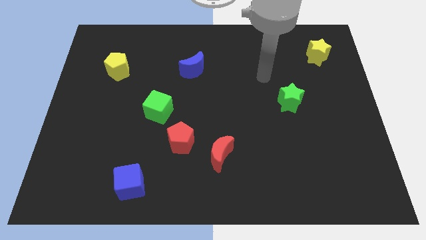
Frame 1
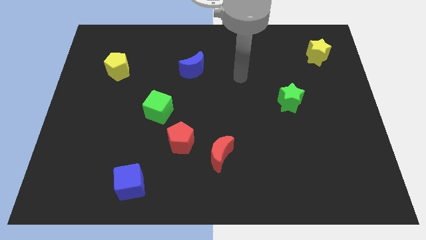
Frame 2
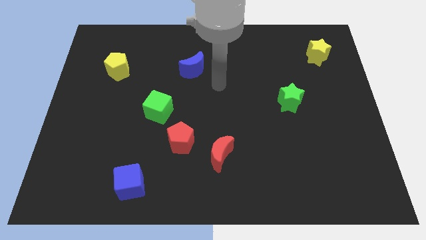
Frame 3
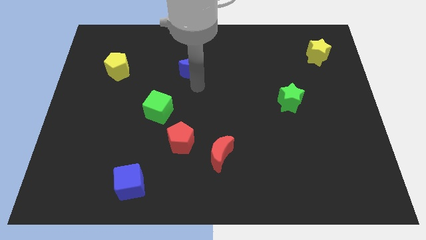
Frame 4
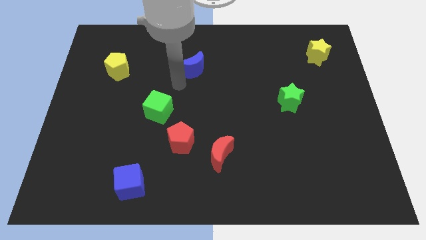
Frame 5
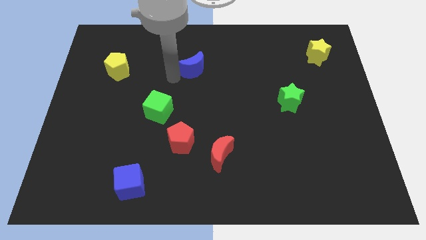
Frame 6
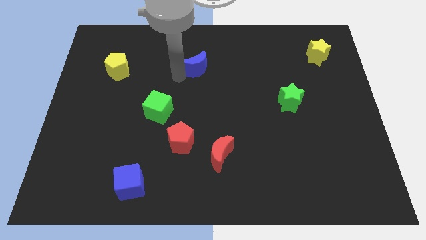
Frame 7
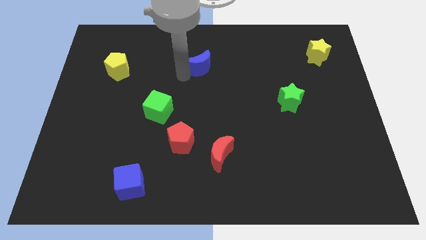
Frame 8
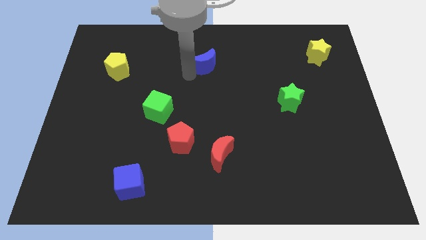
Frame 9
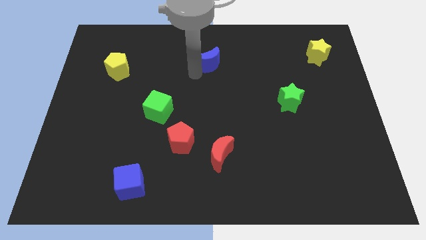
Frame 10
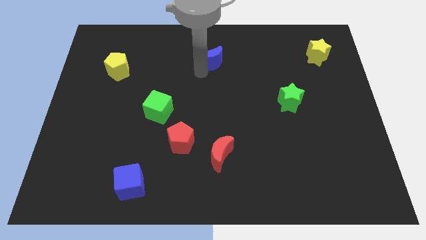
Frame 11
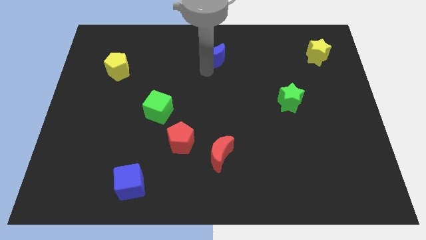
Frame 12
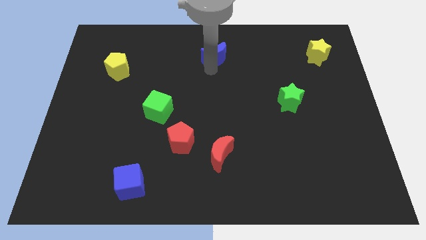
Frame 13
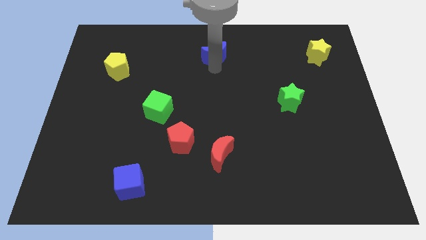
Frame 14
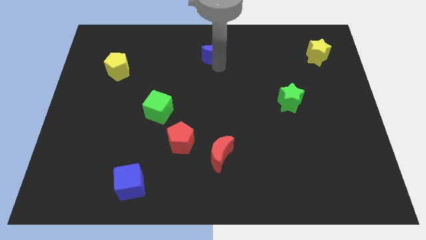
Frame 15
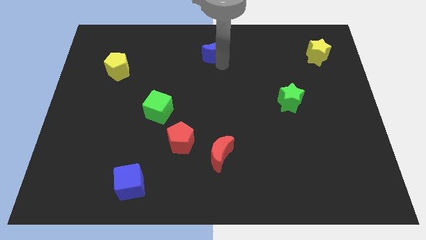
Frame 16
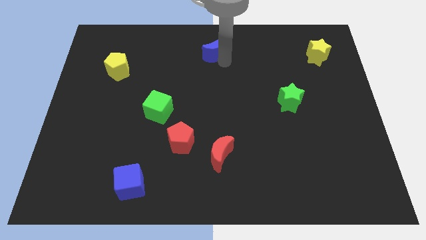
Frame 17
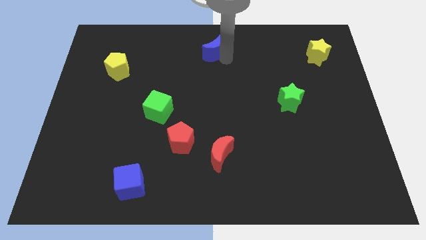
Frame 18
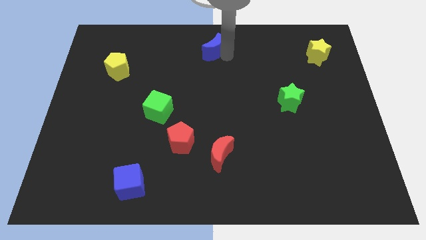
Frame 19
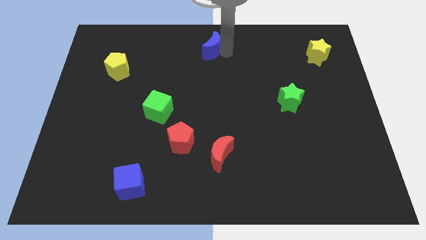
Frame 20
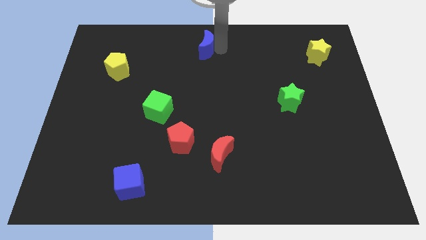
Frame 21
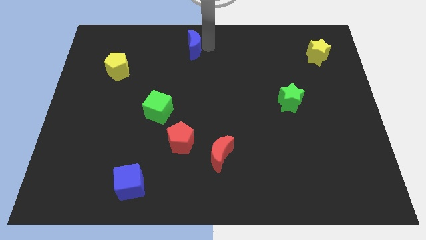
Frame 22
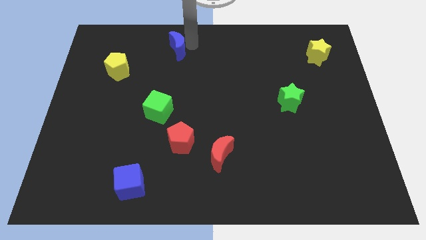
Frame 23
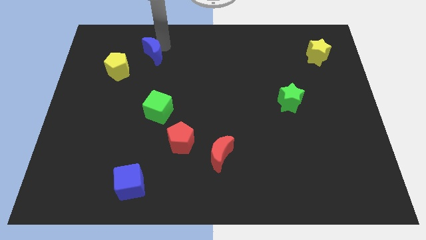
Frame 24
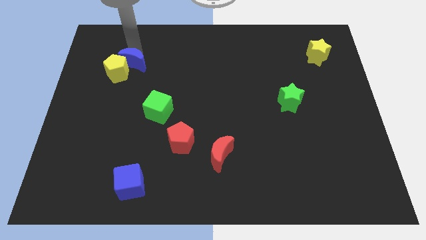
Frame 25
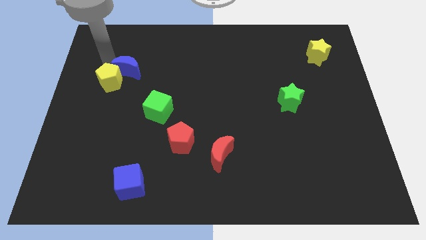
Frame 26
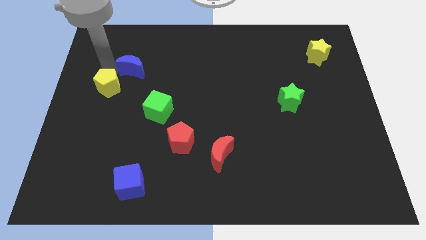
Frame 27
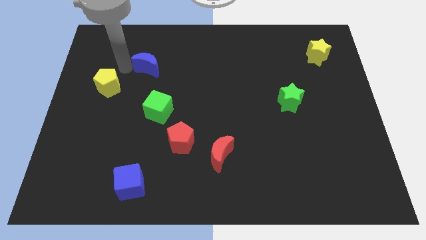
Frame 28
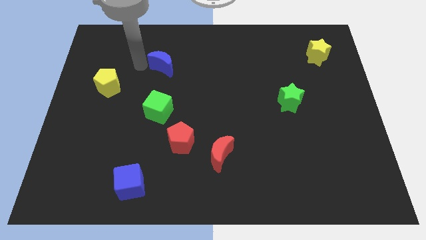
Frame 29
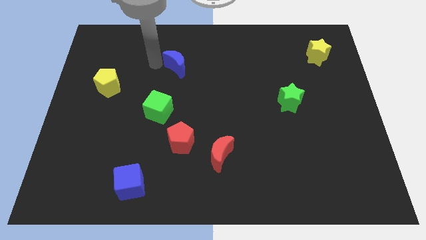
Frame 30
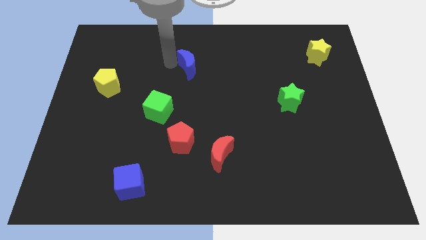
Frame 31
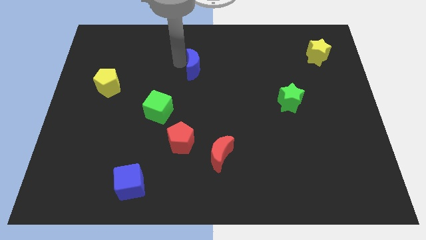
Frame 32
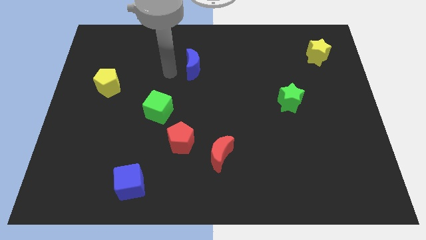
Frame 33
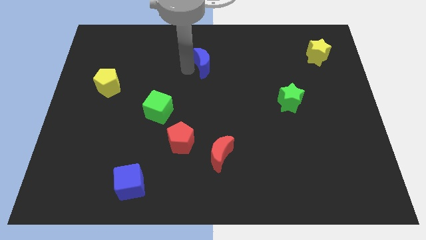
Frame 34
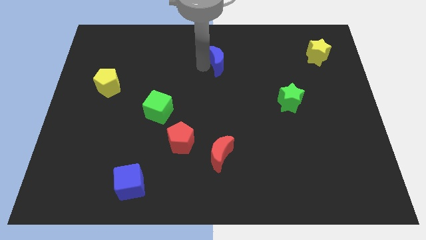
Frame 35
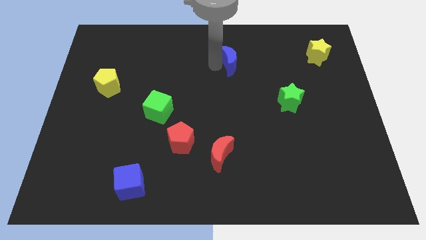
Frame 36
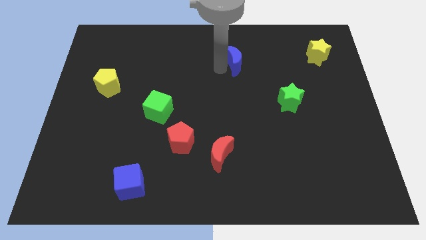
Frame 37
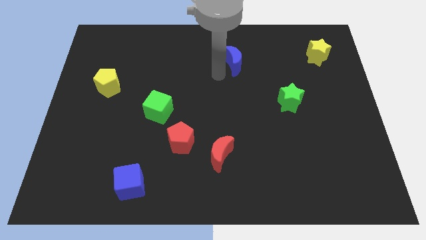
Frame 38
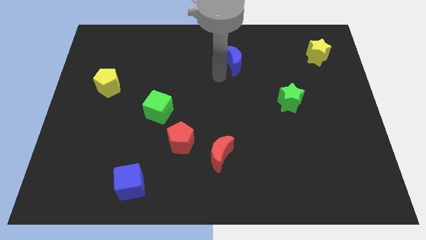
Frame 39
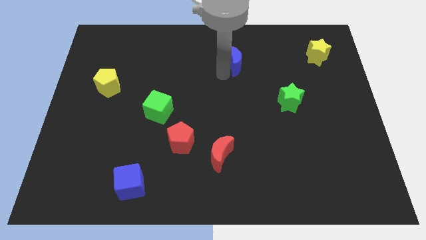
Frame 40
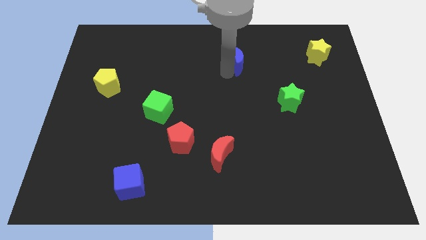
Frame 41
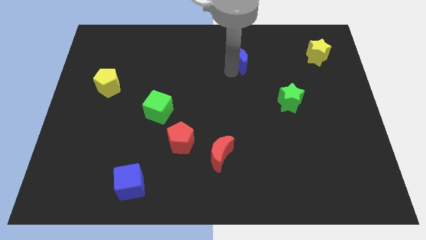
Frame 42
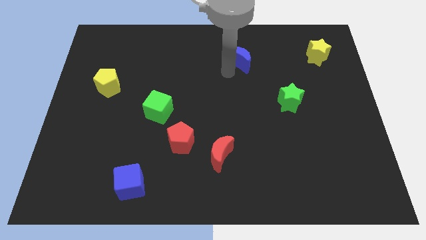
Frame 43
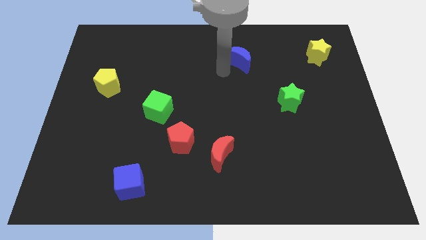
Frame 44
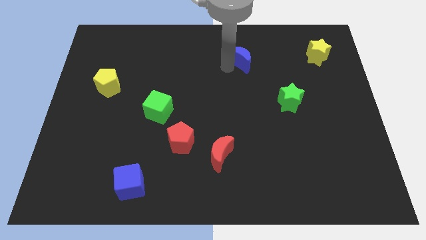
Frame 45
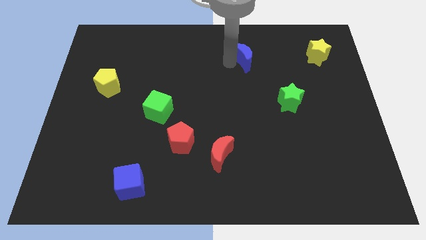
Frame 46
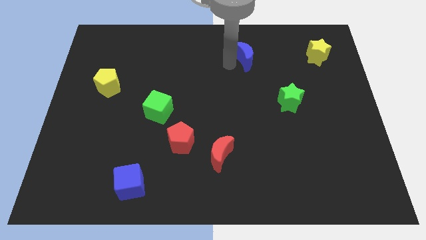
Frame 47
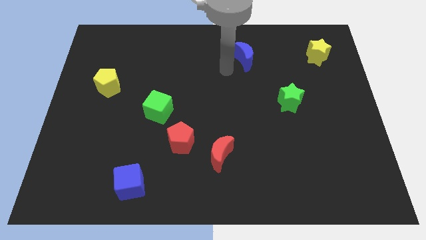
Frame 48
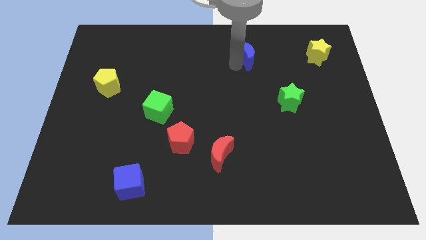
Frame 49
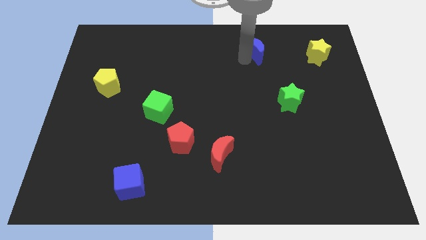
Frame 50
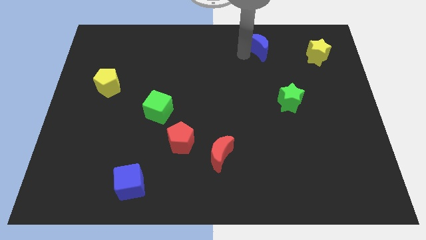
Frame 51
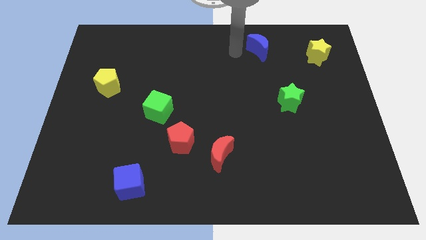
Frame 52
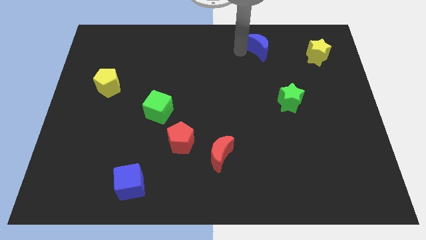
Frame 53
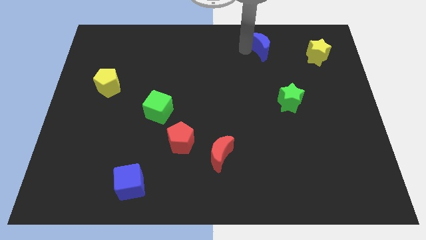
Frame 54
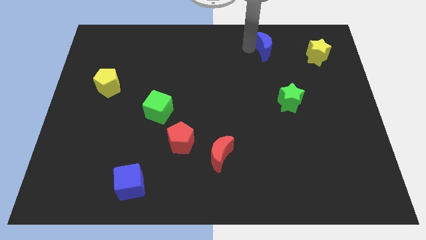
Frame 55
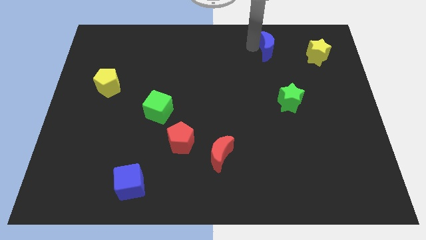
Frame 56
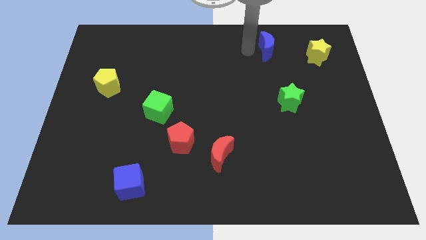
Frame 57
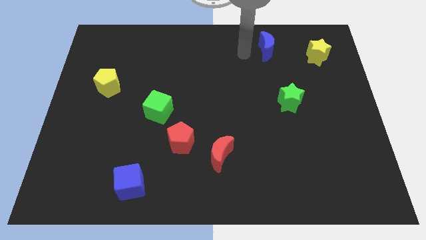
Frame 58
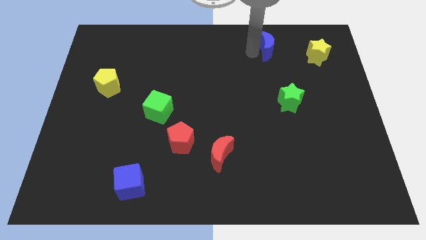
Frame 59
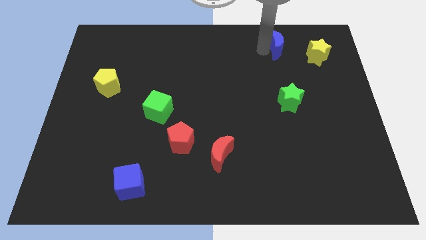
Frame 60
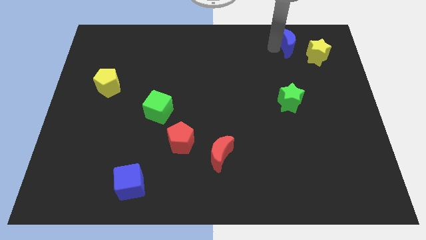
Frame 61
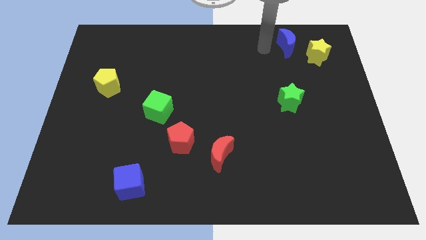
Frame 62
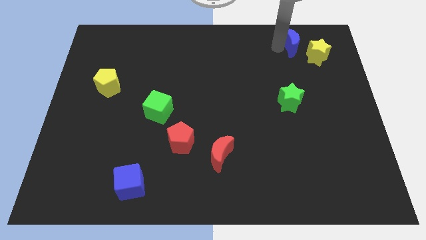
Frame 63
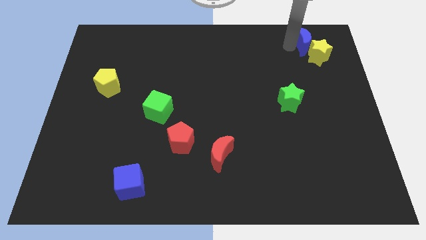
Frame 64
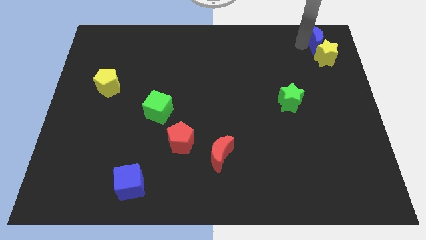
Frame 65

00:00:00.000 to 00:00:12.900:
push the blue moon to the top right corner

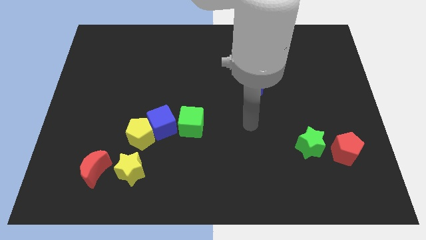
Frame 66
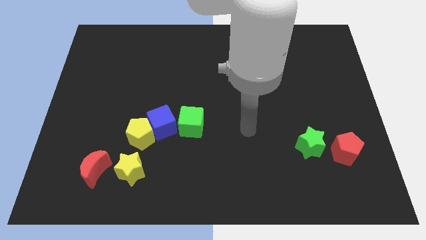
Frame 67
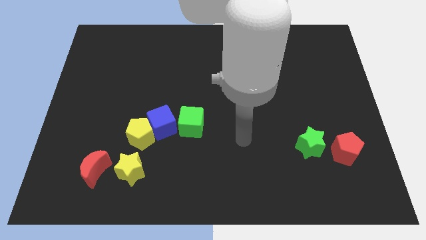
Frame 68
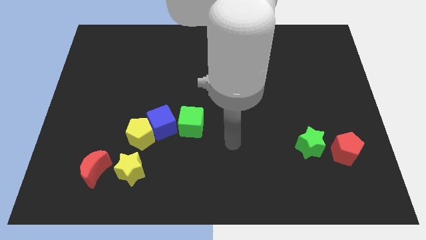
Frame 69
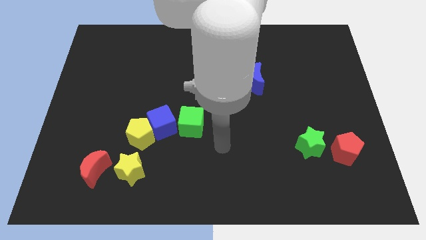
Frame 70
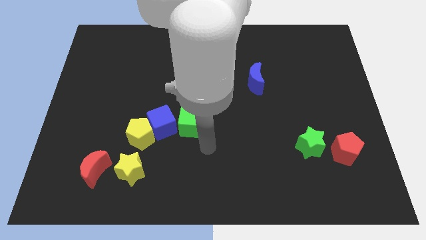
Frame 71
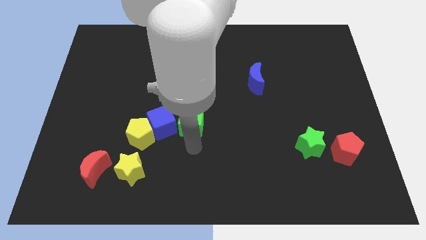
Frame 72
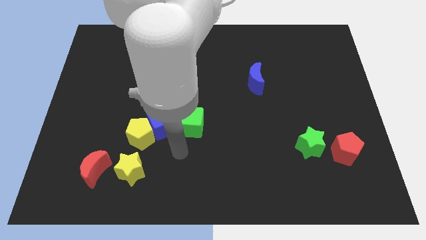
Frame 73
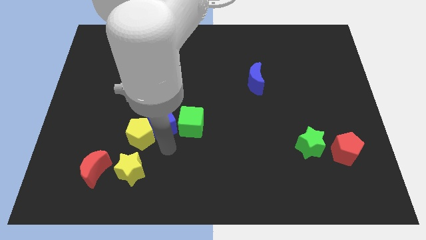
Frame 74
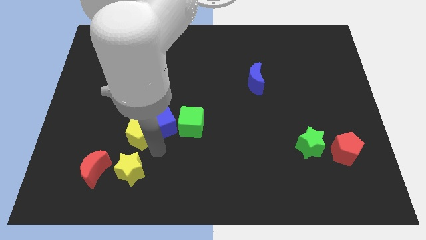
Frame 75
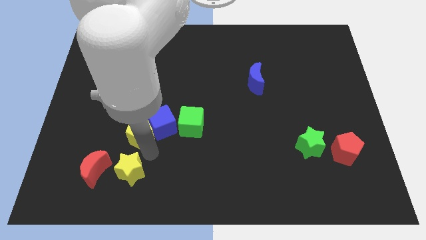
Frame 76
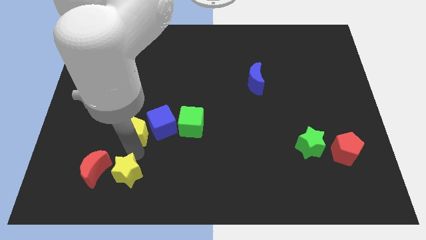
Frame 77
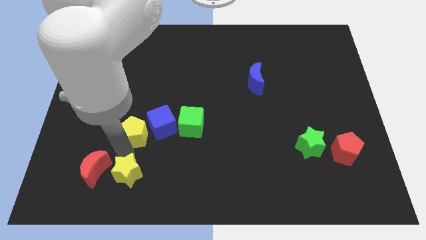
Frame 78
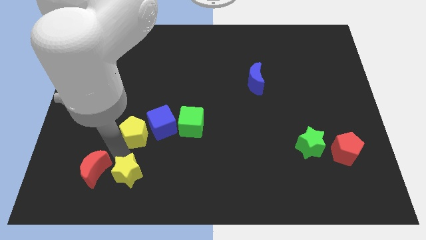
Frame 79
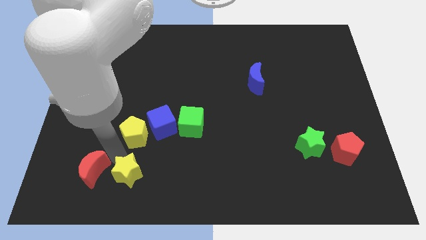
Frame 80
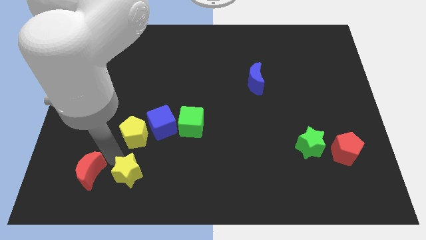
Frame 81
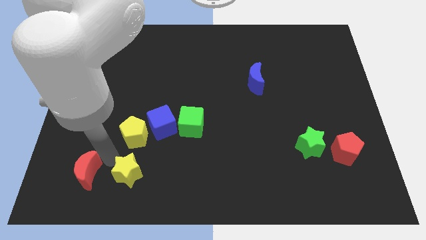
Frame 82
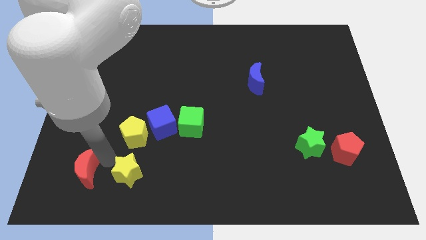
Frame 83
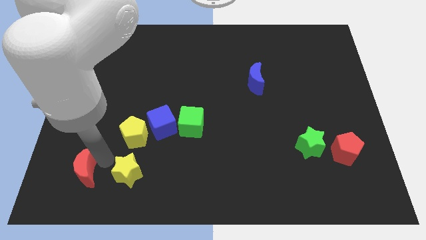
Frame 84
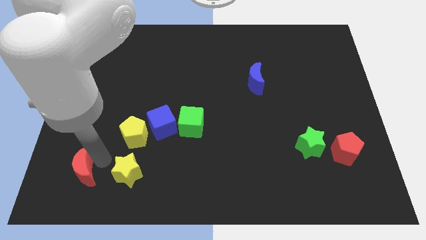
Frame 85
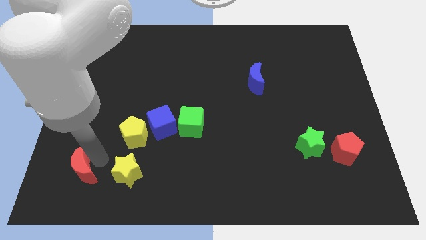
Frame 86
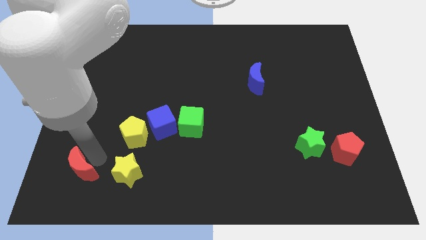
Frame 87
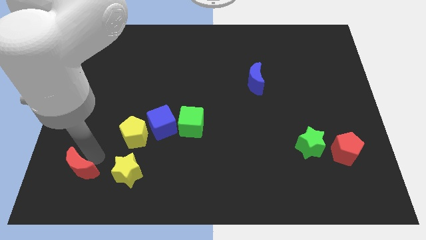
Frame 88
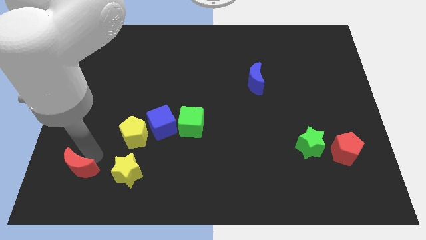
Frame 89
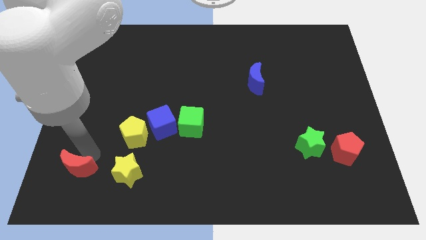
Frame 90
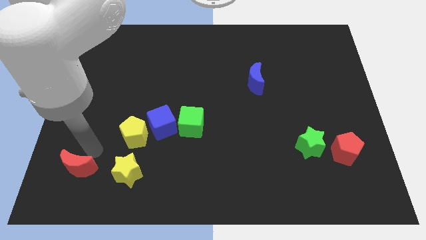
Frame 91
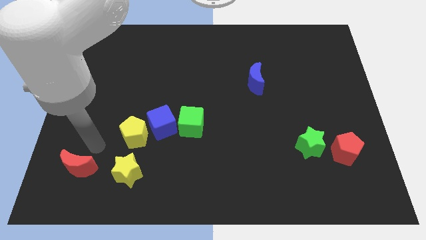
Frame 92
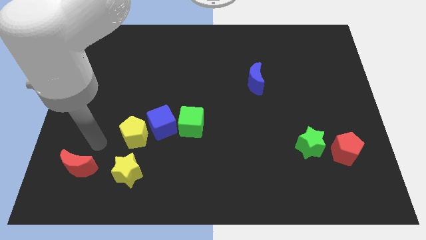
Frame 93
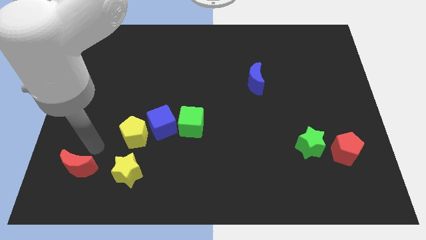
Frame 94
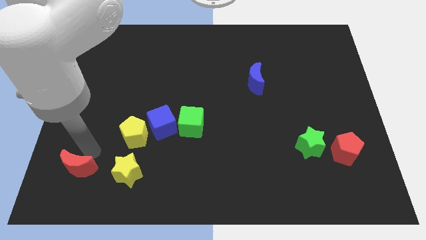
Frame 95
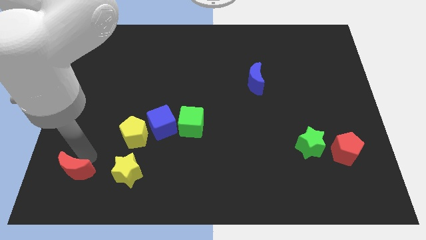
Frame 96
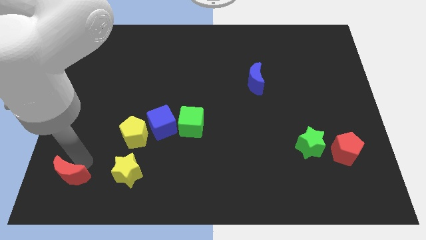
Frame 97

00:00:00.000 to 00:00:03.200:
push the red moon to the bottom left
